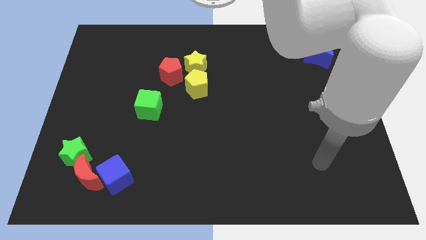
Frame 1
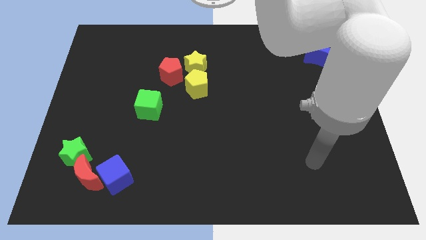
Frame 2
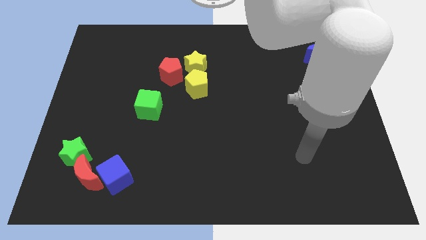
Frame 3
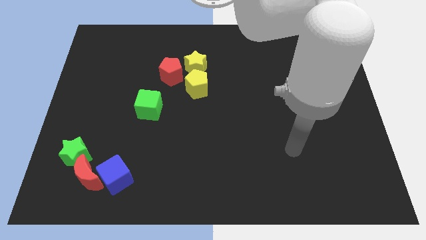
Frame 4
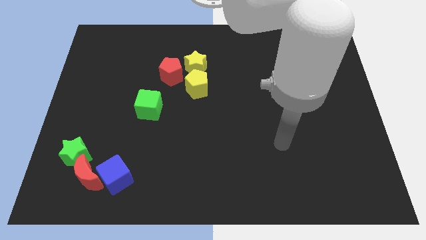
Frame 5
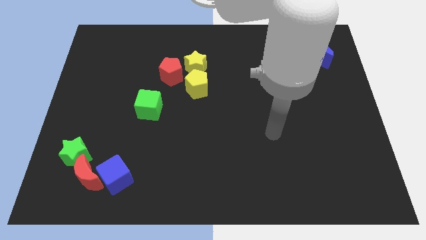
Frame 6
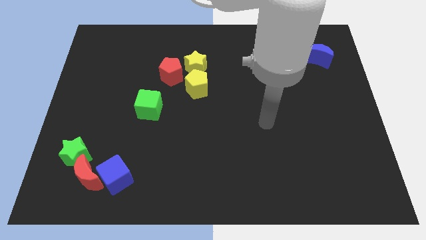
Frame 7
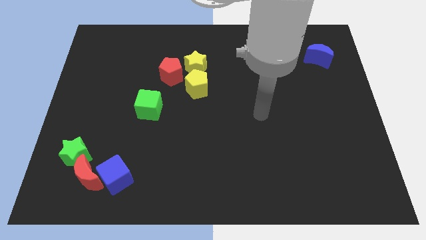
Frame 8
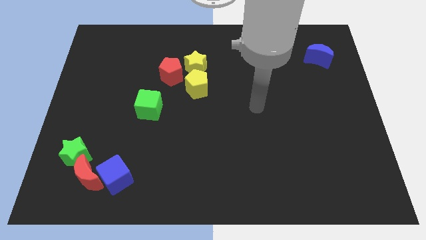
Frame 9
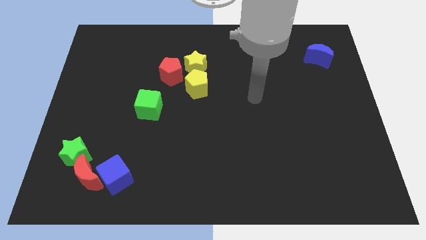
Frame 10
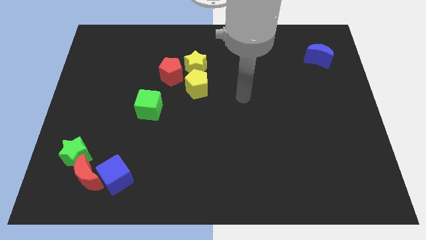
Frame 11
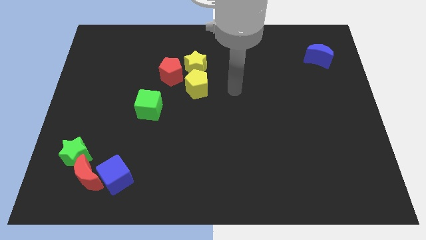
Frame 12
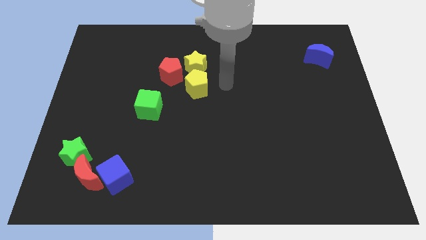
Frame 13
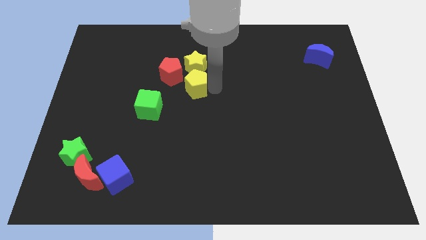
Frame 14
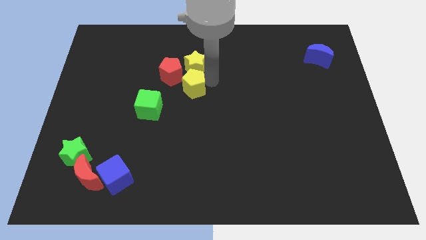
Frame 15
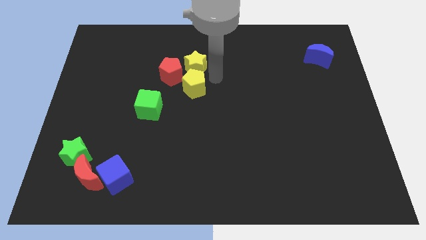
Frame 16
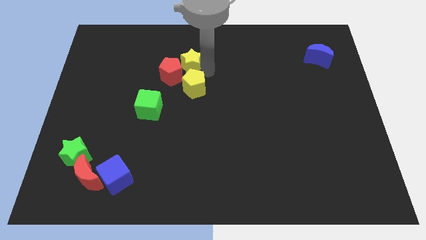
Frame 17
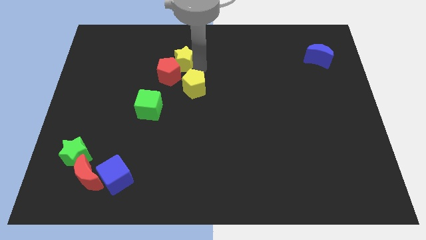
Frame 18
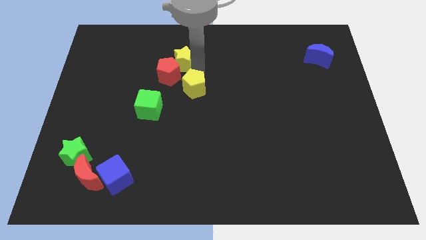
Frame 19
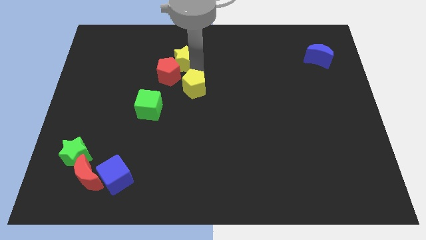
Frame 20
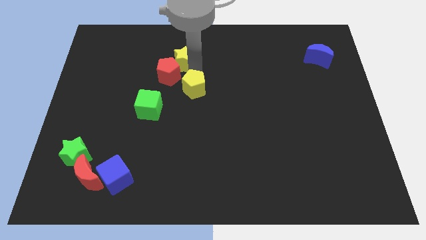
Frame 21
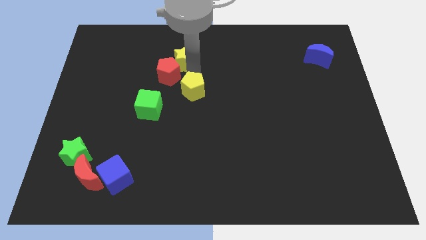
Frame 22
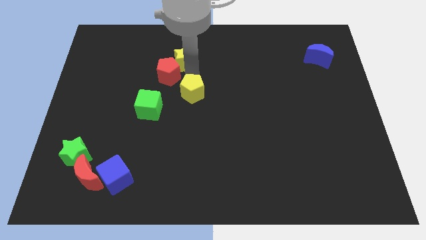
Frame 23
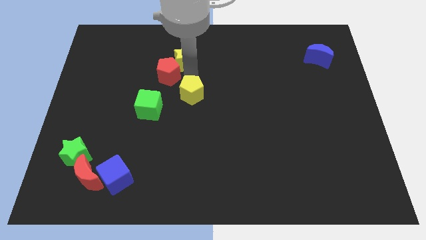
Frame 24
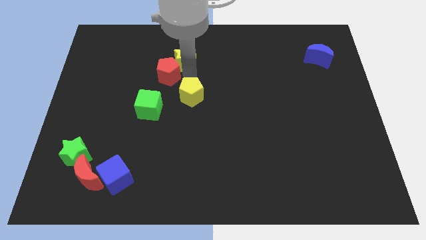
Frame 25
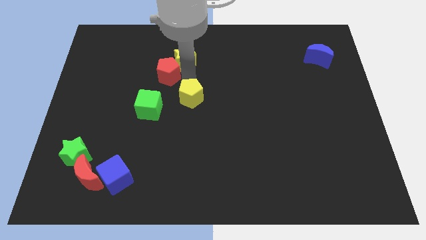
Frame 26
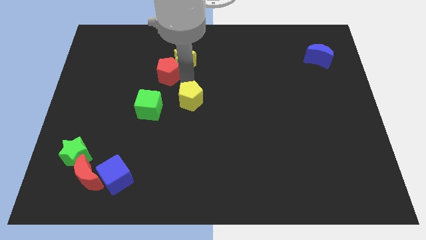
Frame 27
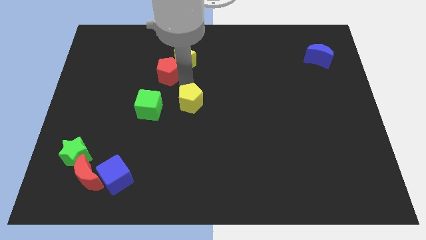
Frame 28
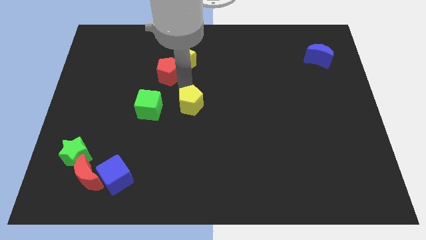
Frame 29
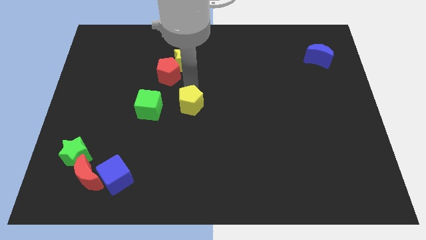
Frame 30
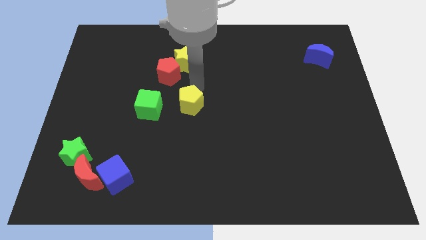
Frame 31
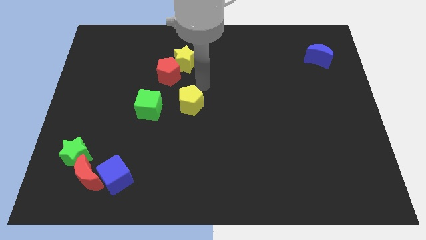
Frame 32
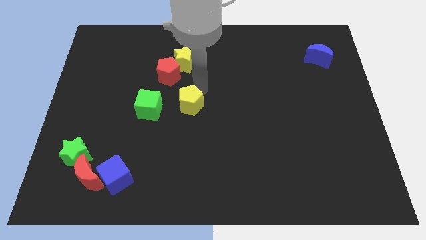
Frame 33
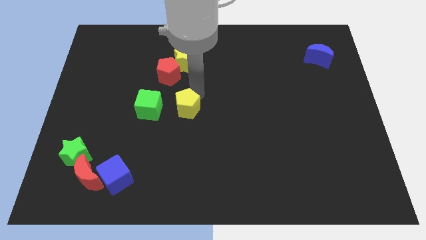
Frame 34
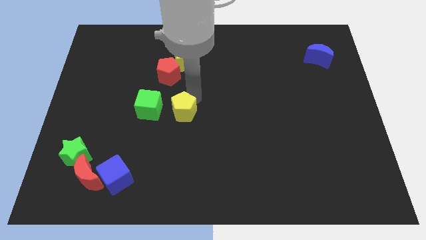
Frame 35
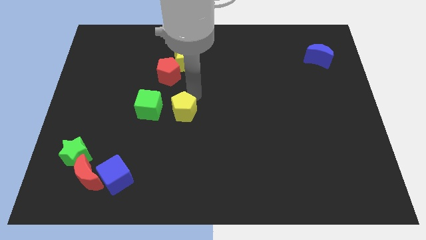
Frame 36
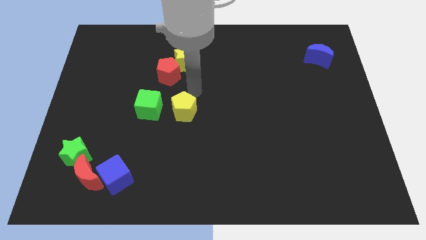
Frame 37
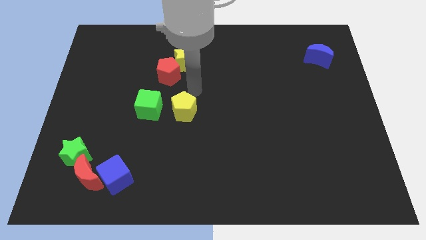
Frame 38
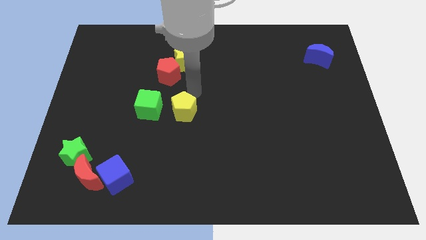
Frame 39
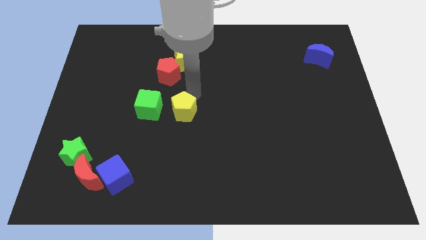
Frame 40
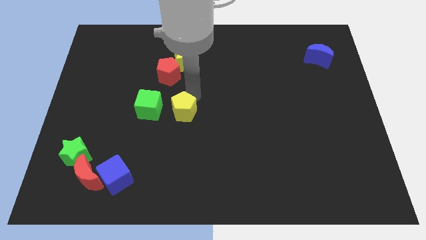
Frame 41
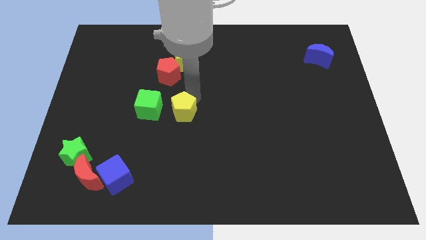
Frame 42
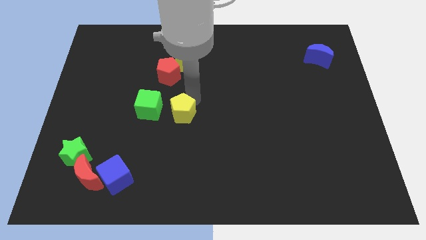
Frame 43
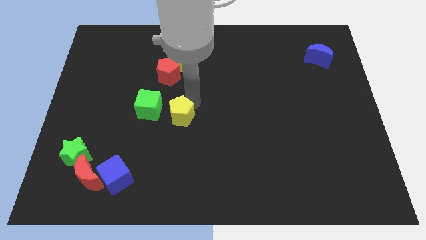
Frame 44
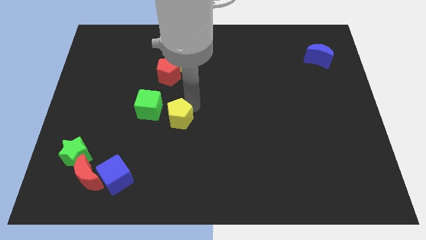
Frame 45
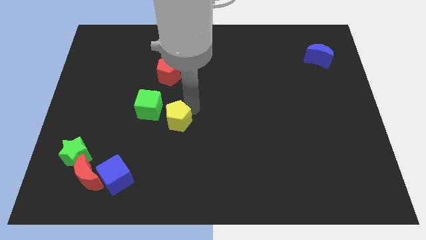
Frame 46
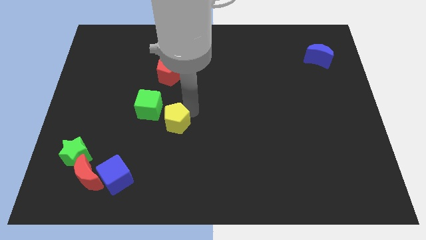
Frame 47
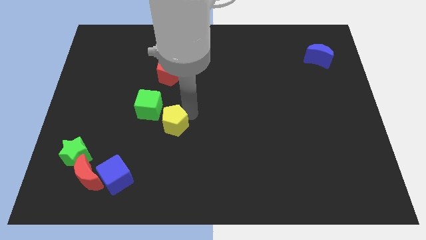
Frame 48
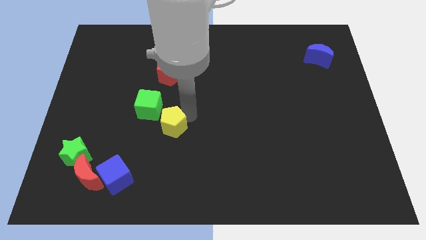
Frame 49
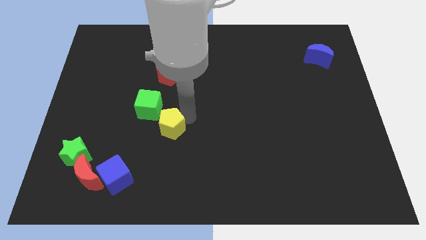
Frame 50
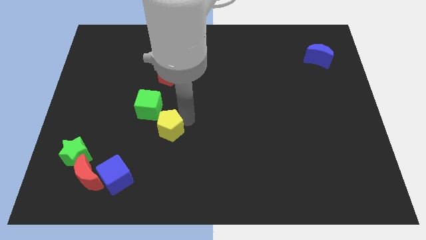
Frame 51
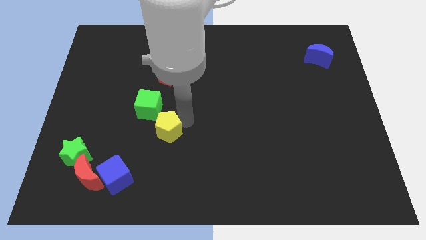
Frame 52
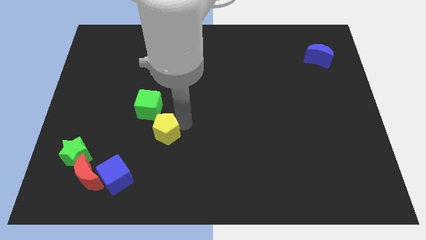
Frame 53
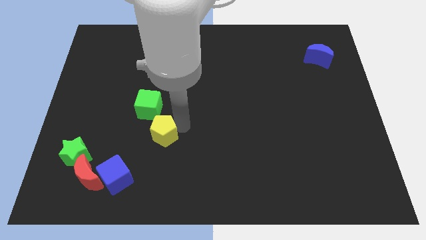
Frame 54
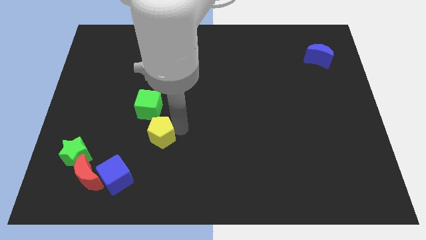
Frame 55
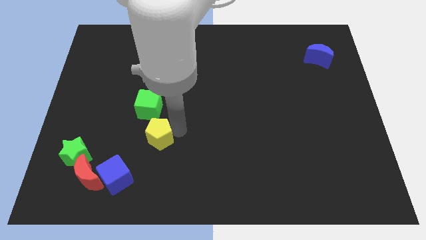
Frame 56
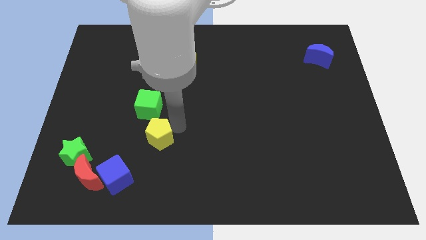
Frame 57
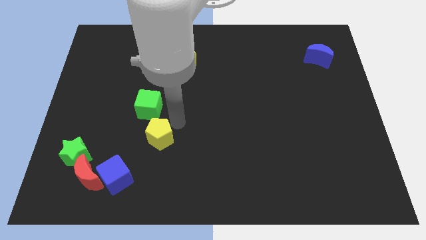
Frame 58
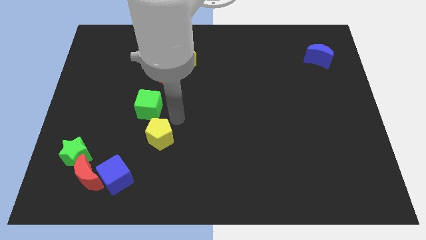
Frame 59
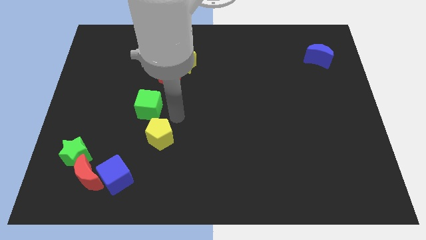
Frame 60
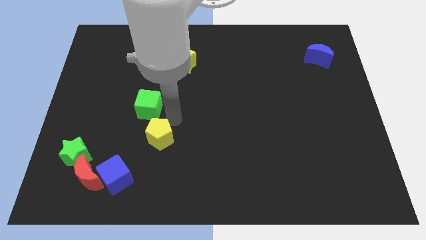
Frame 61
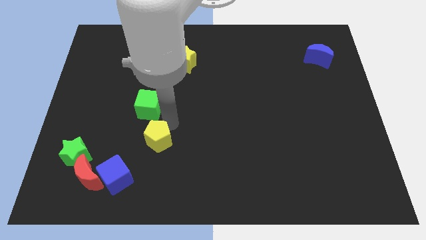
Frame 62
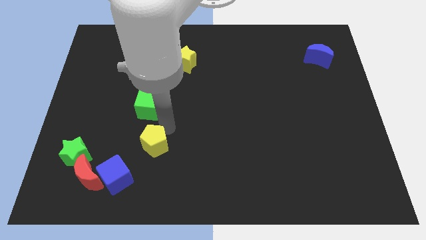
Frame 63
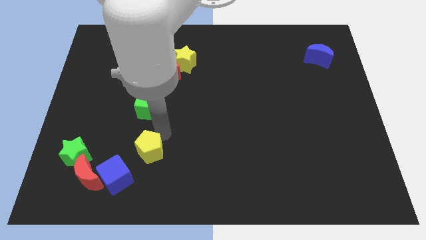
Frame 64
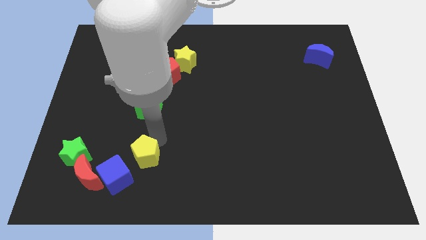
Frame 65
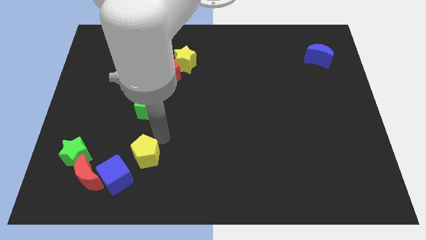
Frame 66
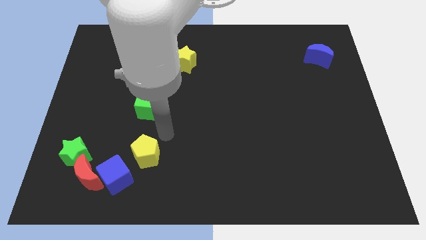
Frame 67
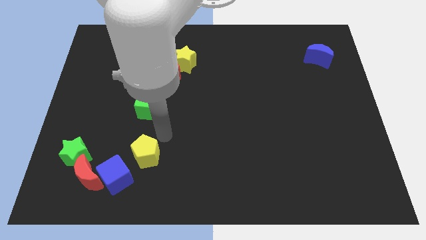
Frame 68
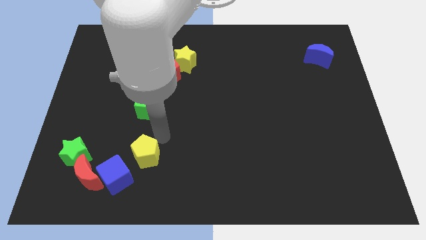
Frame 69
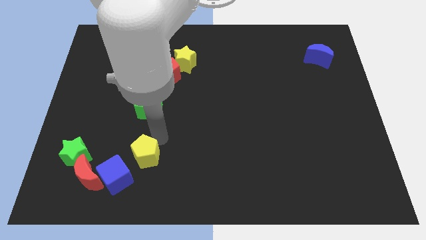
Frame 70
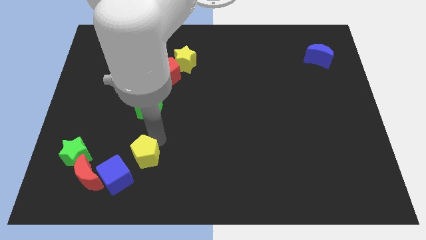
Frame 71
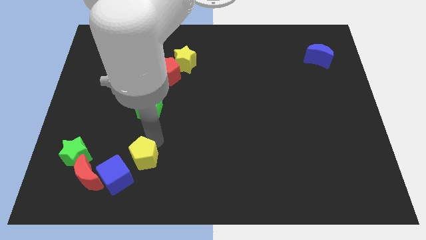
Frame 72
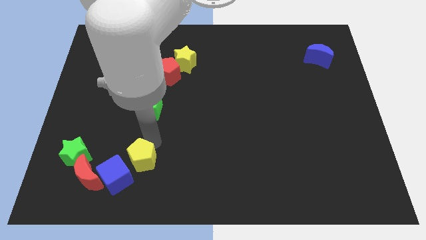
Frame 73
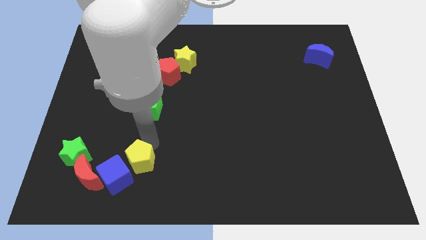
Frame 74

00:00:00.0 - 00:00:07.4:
slide the yellow pentagon close to the blue cube
